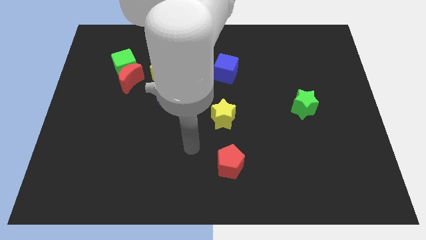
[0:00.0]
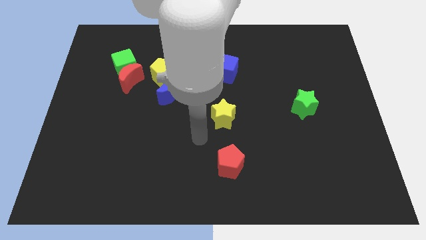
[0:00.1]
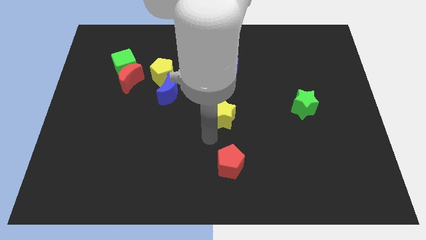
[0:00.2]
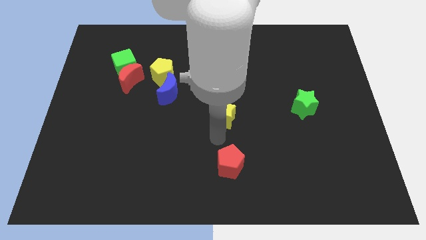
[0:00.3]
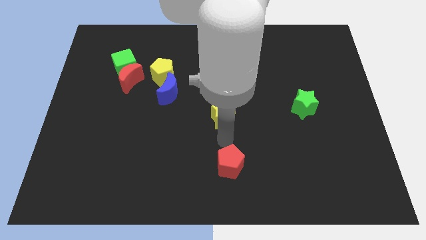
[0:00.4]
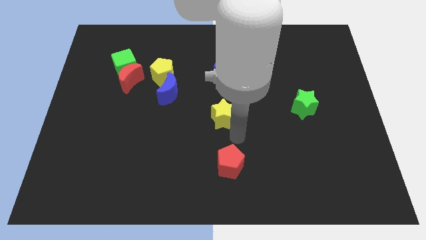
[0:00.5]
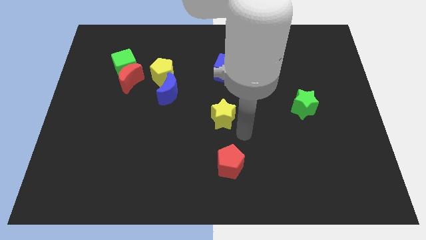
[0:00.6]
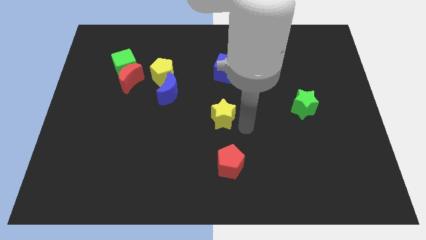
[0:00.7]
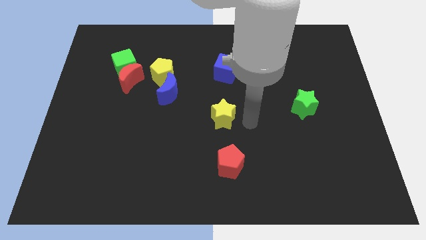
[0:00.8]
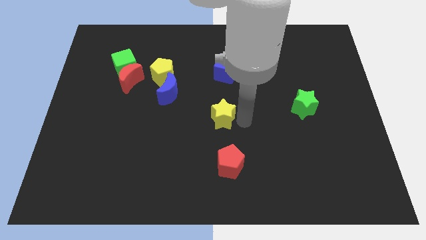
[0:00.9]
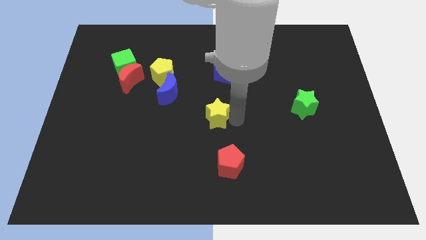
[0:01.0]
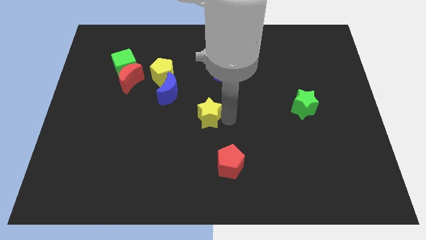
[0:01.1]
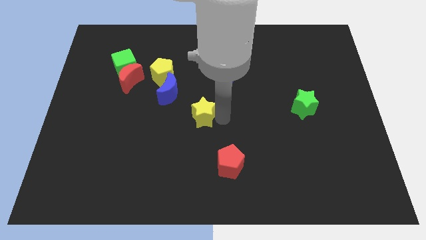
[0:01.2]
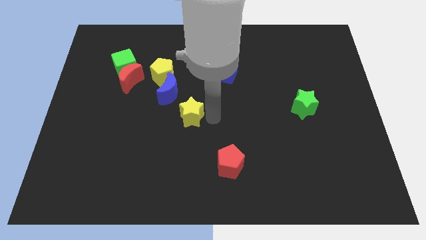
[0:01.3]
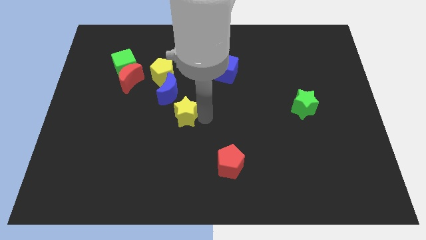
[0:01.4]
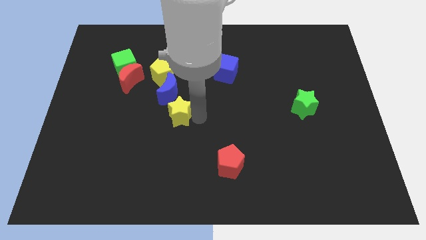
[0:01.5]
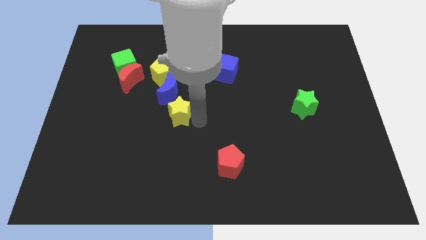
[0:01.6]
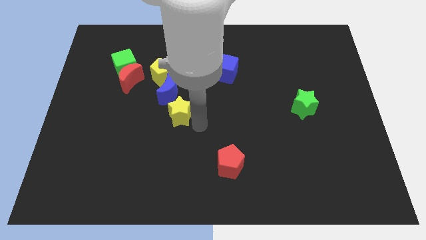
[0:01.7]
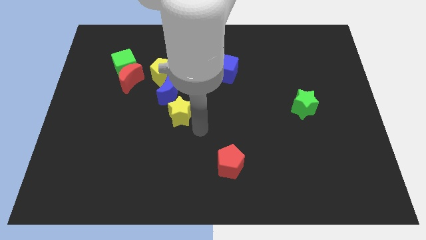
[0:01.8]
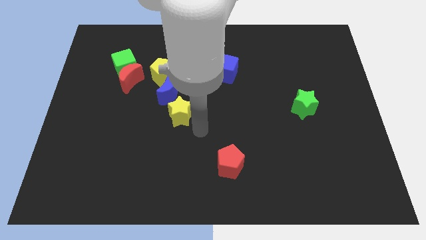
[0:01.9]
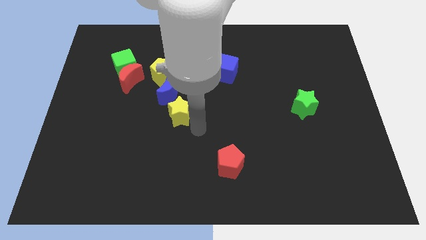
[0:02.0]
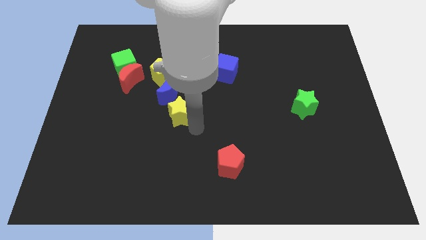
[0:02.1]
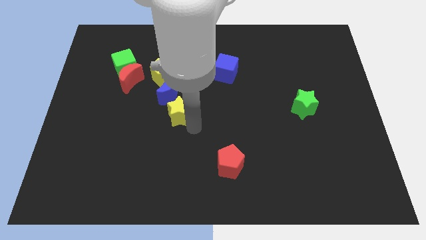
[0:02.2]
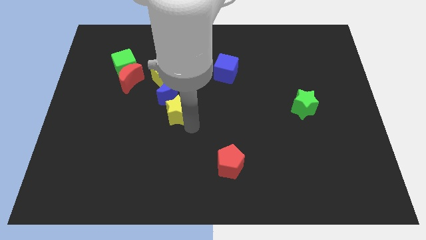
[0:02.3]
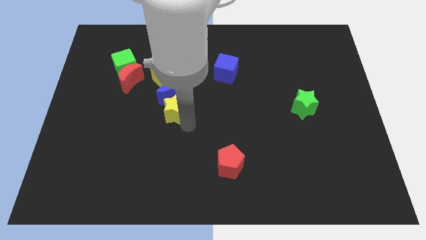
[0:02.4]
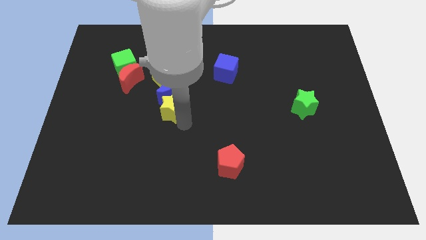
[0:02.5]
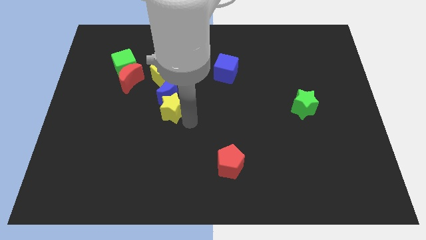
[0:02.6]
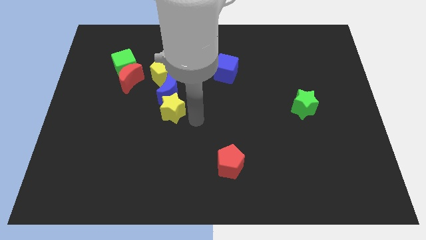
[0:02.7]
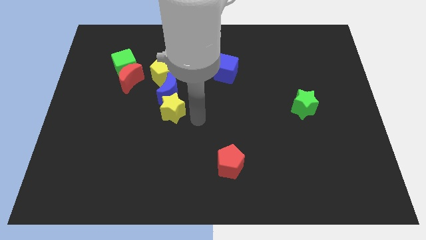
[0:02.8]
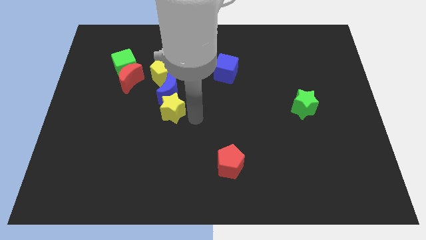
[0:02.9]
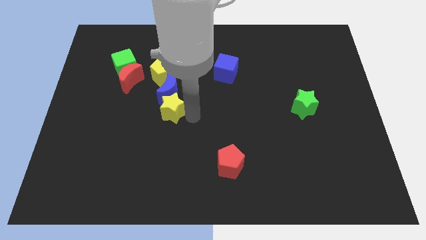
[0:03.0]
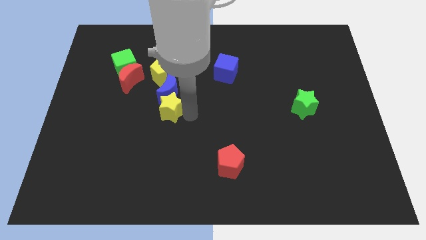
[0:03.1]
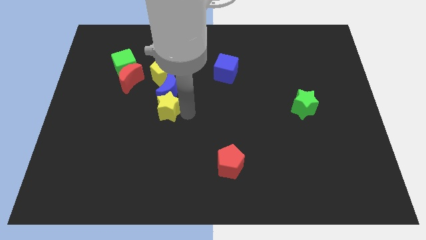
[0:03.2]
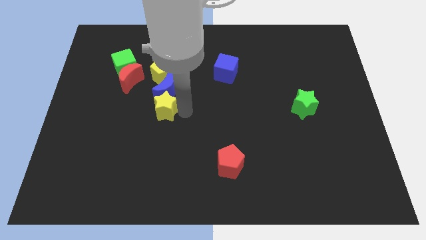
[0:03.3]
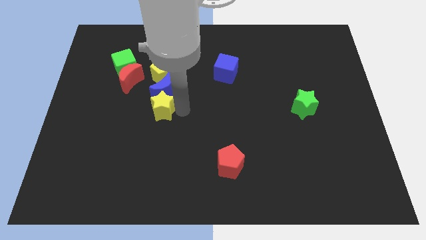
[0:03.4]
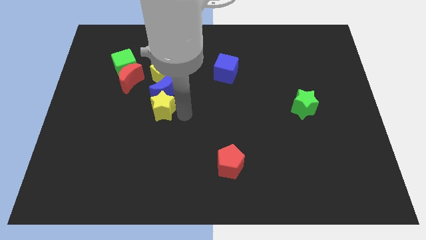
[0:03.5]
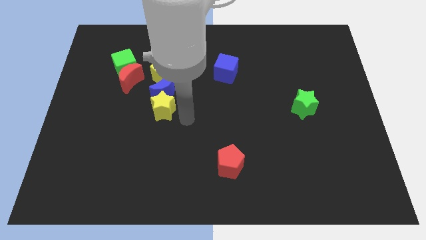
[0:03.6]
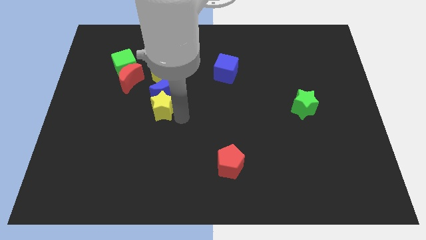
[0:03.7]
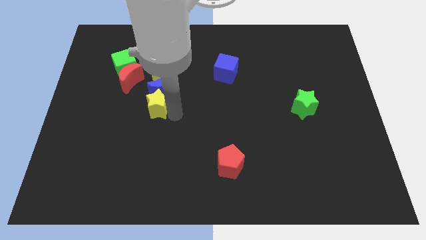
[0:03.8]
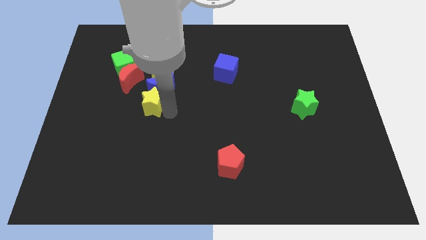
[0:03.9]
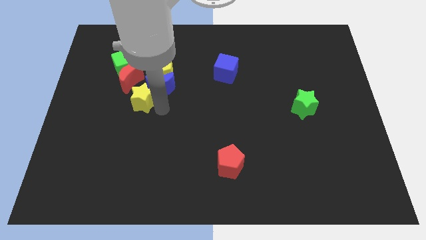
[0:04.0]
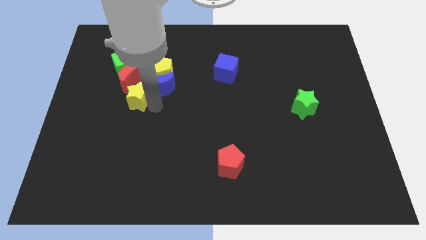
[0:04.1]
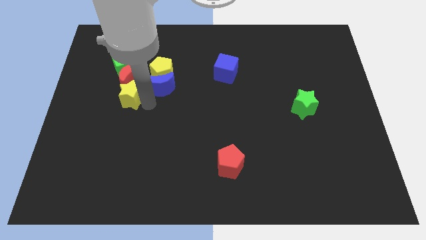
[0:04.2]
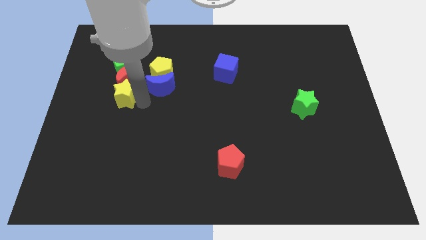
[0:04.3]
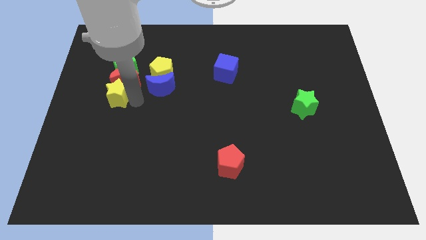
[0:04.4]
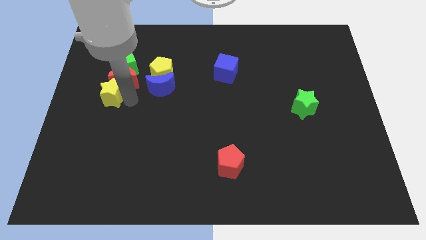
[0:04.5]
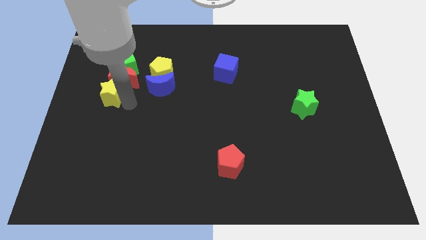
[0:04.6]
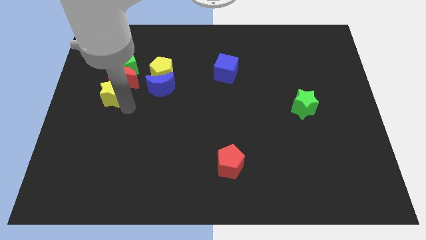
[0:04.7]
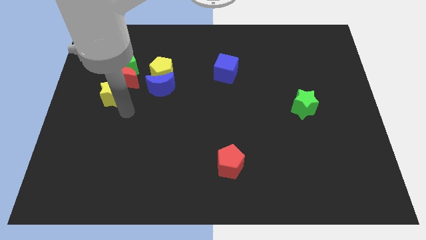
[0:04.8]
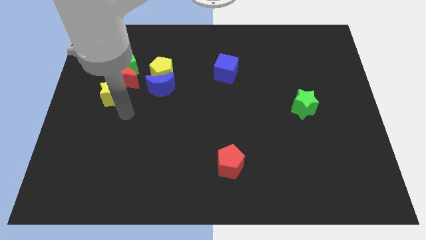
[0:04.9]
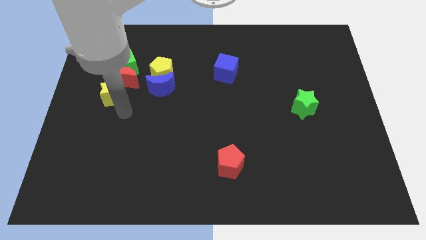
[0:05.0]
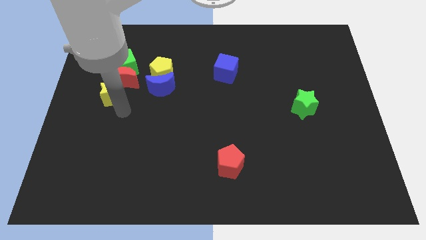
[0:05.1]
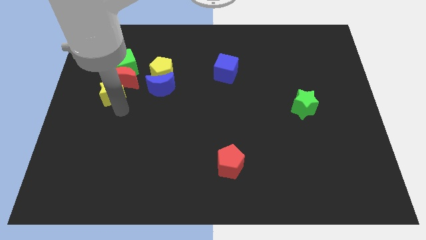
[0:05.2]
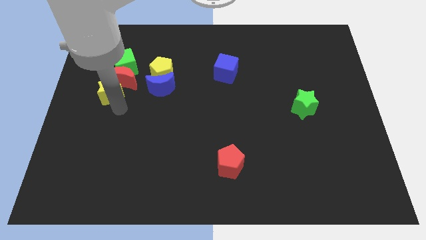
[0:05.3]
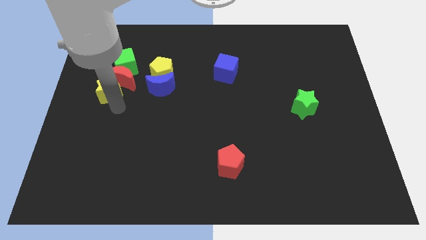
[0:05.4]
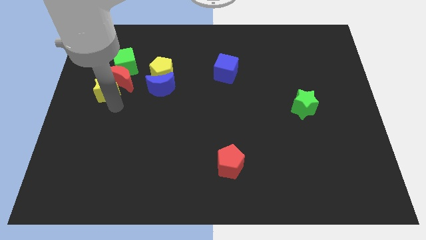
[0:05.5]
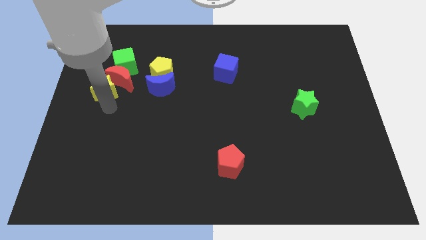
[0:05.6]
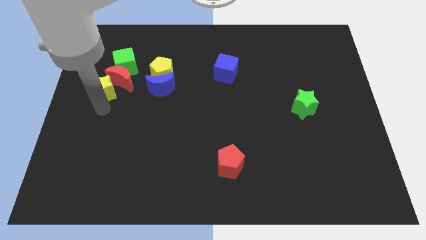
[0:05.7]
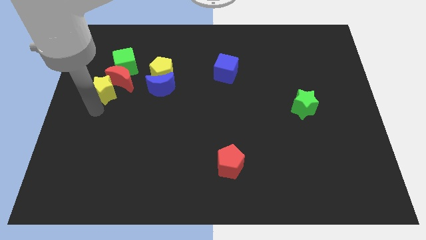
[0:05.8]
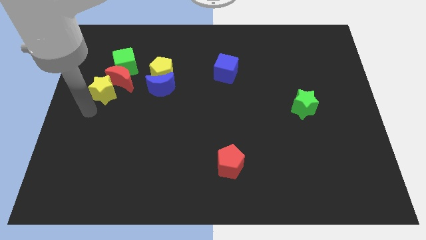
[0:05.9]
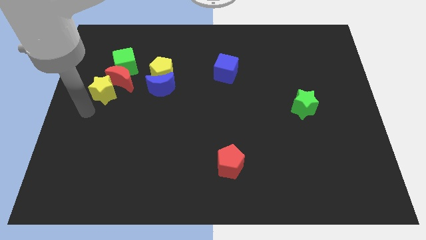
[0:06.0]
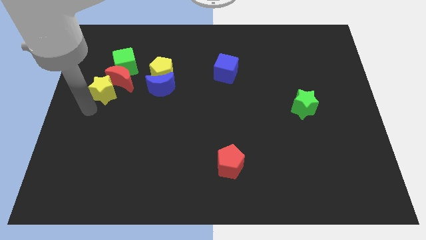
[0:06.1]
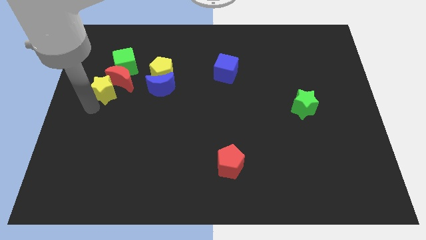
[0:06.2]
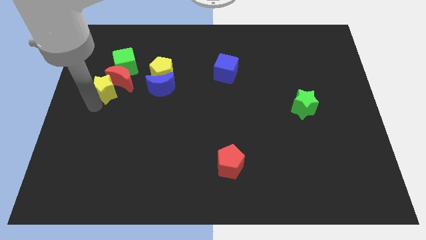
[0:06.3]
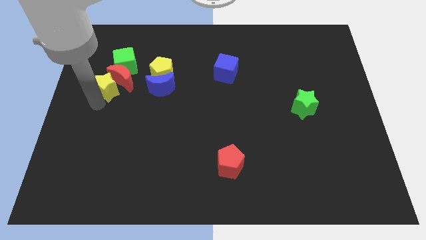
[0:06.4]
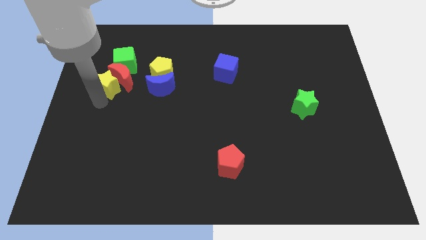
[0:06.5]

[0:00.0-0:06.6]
slide the yellow star to the left of the yellow pentagon

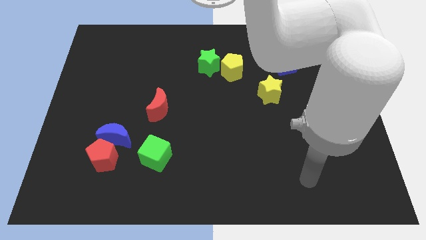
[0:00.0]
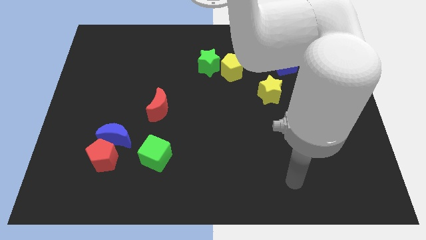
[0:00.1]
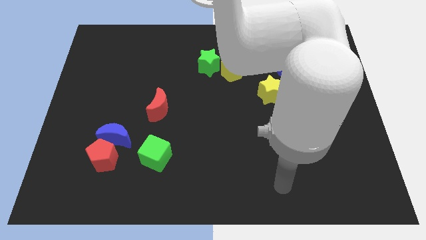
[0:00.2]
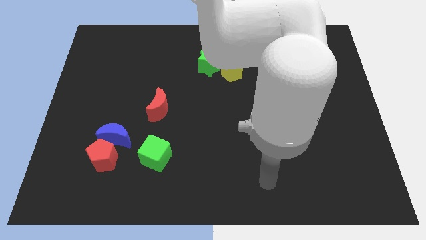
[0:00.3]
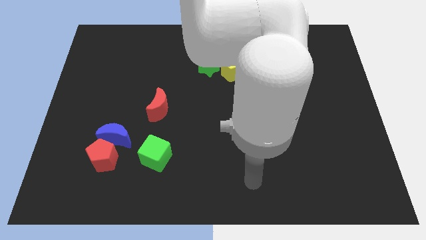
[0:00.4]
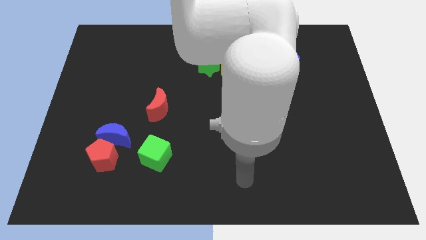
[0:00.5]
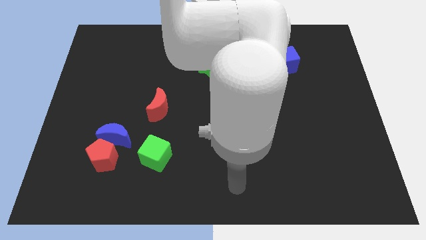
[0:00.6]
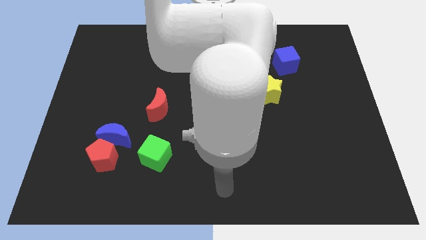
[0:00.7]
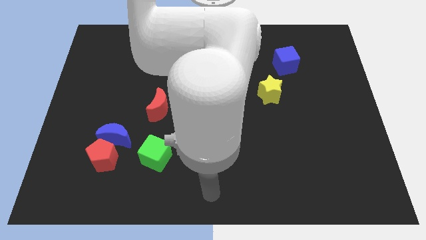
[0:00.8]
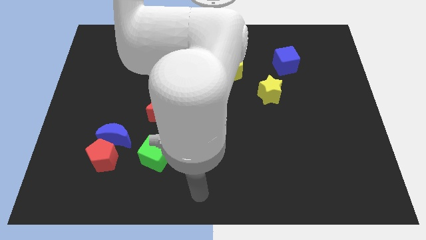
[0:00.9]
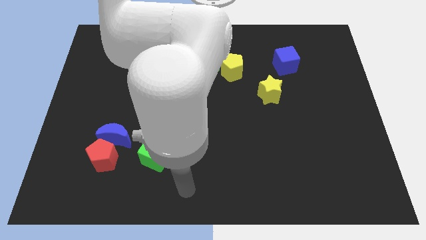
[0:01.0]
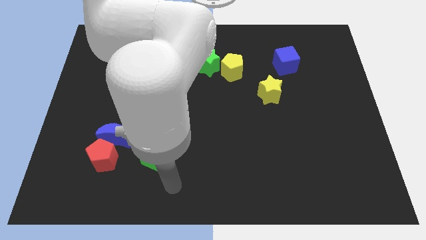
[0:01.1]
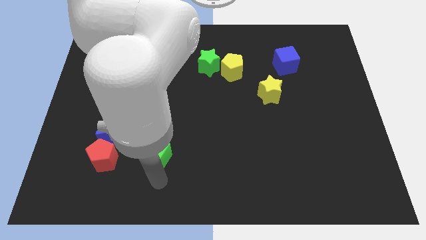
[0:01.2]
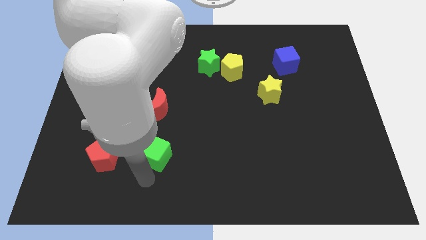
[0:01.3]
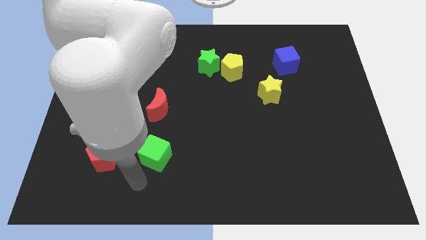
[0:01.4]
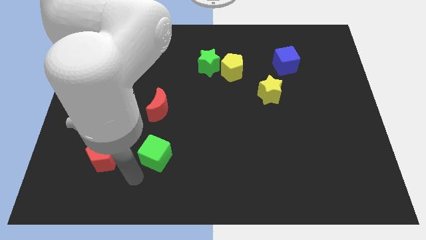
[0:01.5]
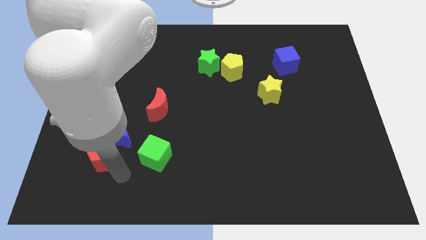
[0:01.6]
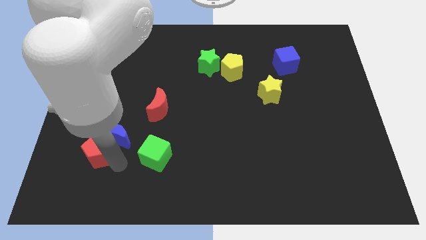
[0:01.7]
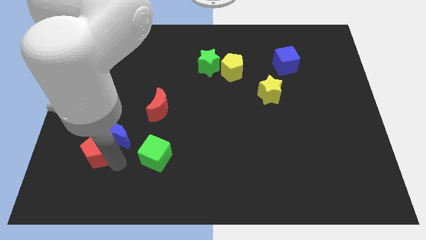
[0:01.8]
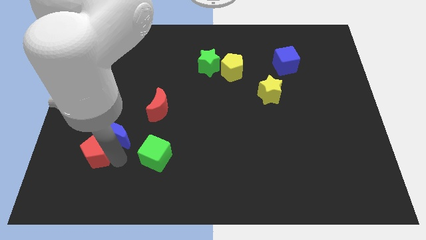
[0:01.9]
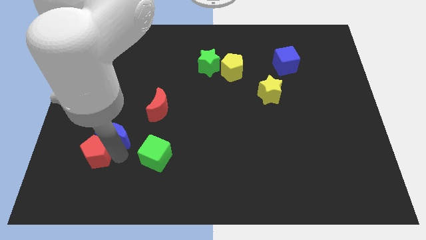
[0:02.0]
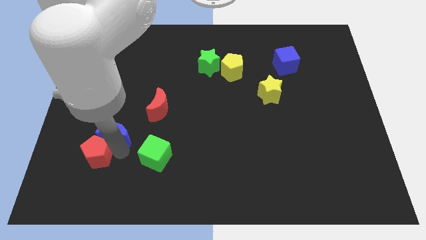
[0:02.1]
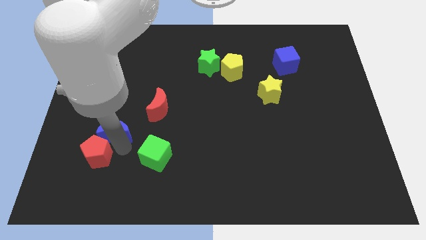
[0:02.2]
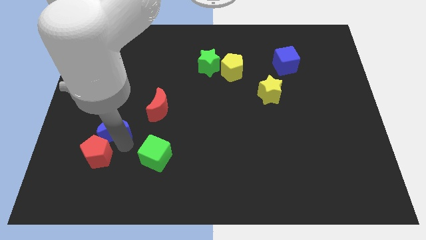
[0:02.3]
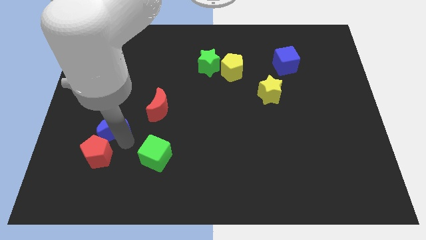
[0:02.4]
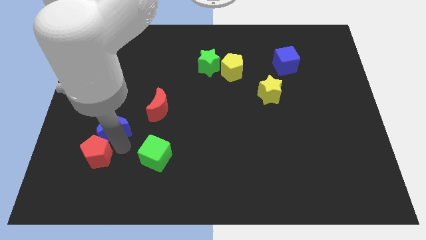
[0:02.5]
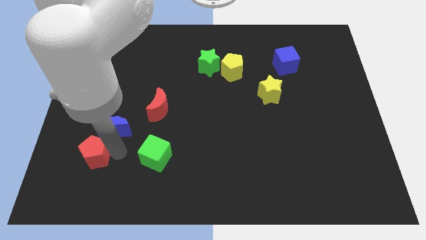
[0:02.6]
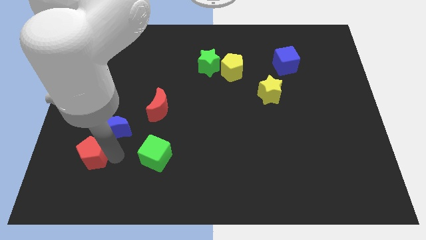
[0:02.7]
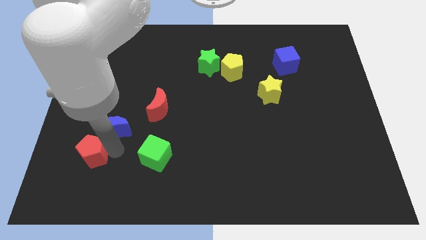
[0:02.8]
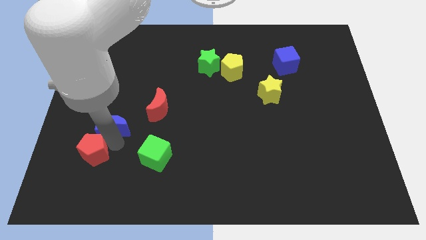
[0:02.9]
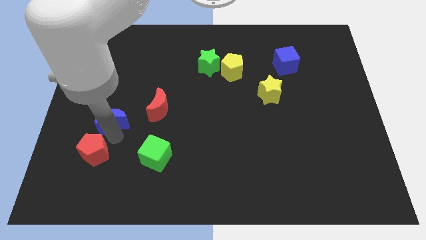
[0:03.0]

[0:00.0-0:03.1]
push the blue moon just left of the red moon
